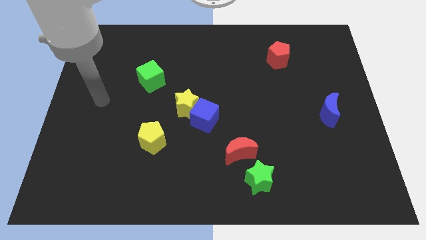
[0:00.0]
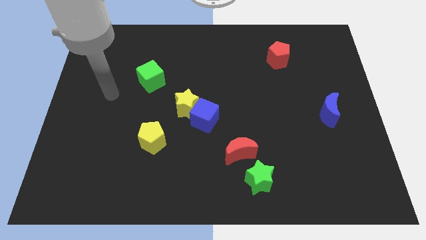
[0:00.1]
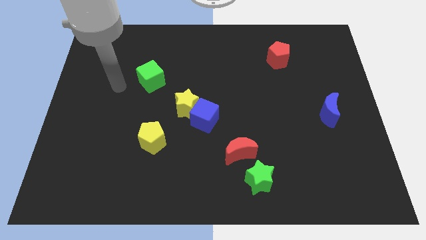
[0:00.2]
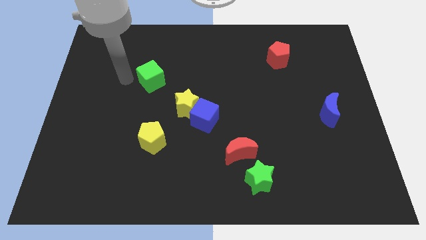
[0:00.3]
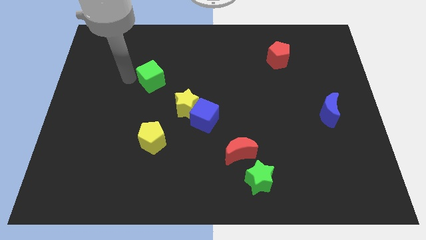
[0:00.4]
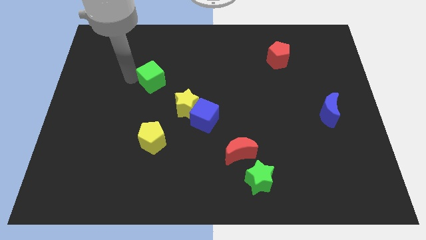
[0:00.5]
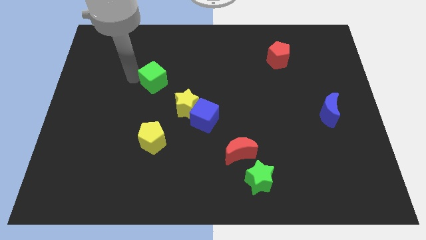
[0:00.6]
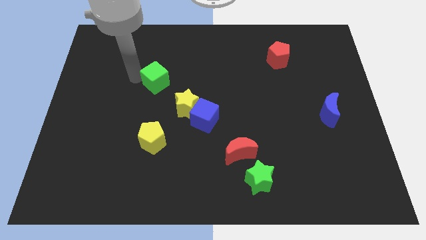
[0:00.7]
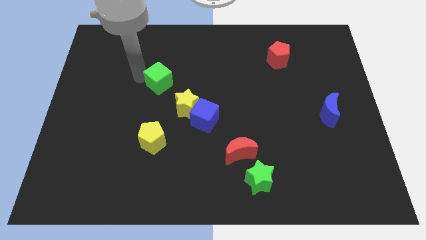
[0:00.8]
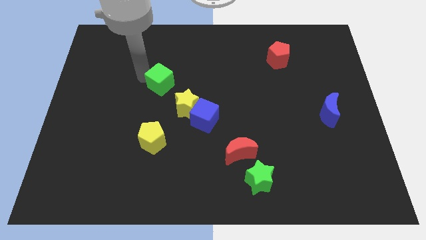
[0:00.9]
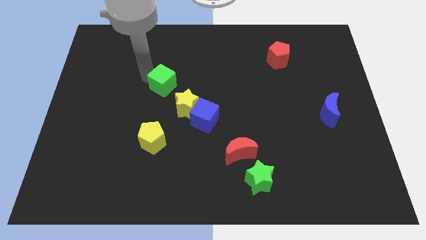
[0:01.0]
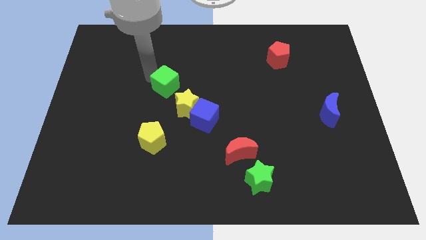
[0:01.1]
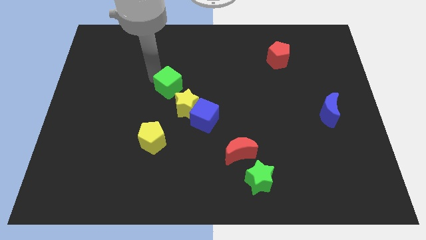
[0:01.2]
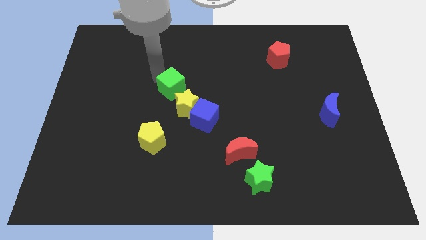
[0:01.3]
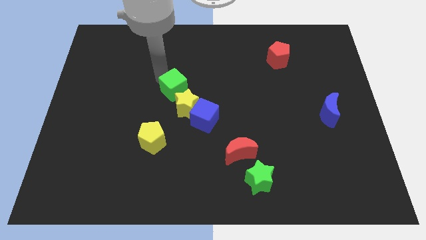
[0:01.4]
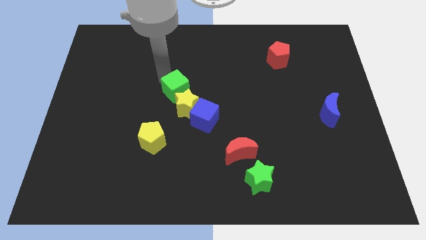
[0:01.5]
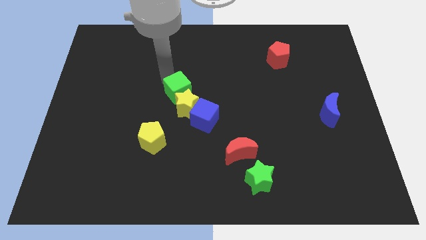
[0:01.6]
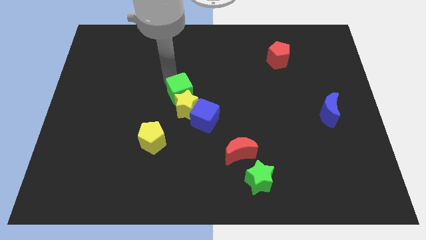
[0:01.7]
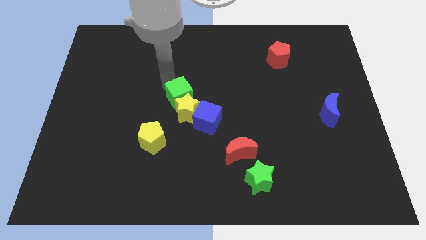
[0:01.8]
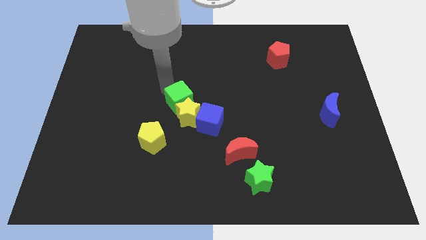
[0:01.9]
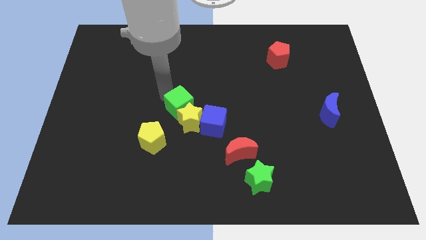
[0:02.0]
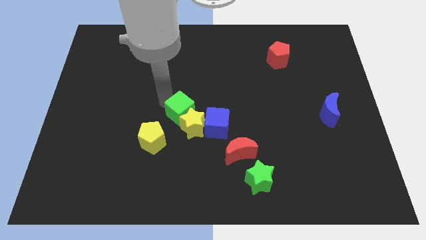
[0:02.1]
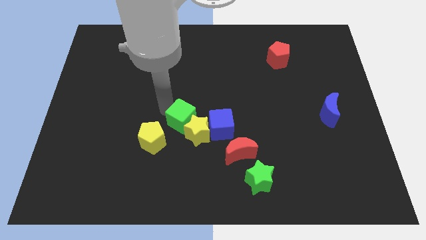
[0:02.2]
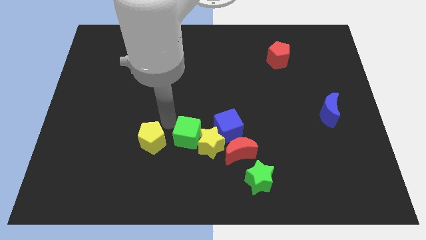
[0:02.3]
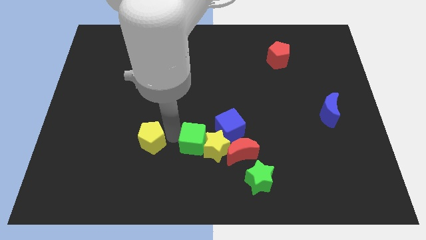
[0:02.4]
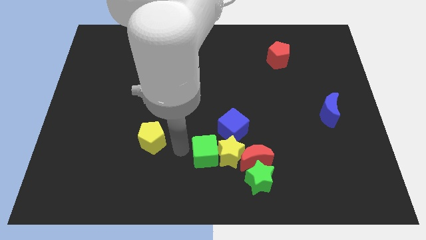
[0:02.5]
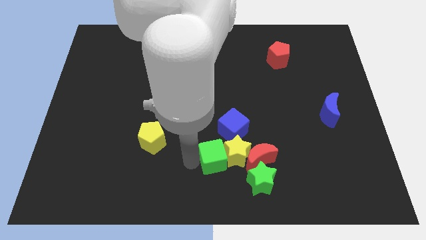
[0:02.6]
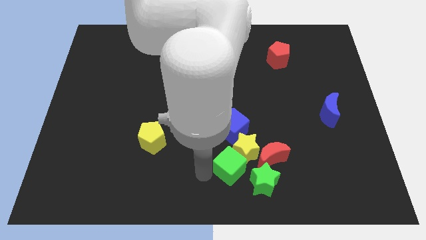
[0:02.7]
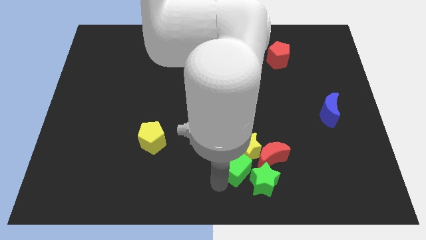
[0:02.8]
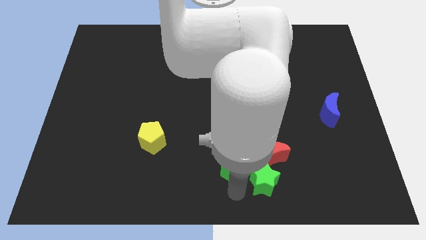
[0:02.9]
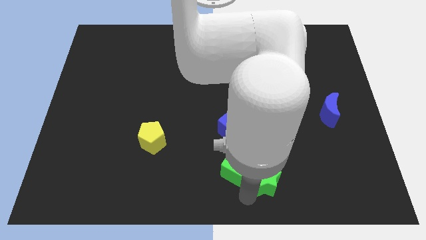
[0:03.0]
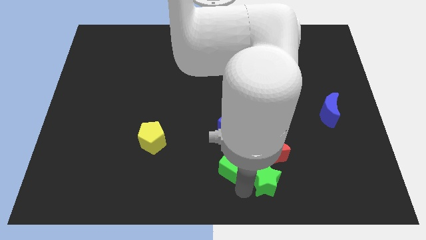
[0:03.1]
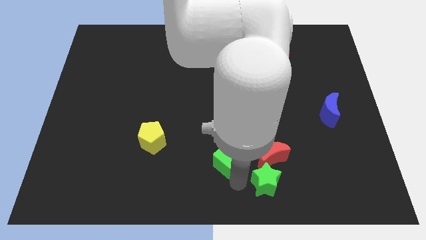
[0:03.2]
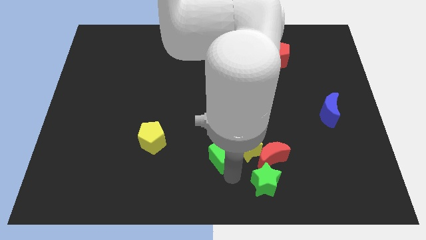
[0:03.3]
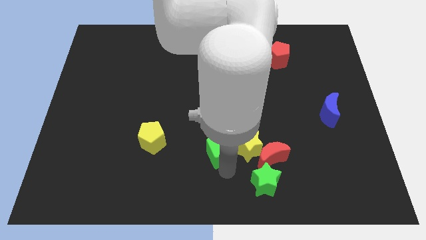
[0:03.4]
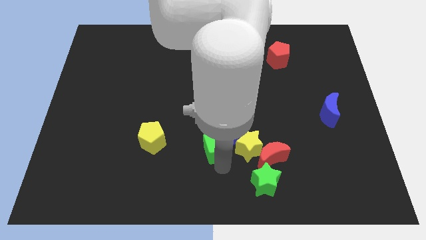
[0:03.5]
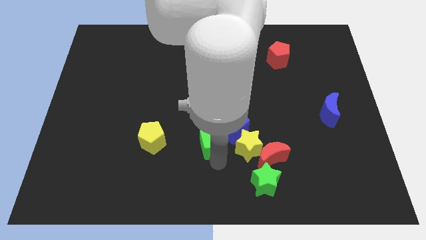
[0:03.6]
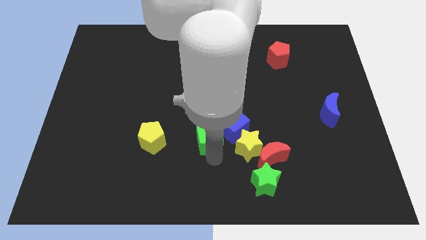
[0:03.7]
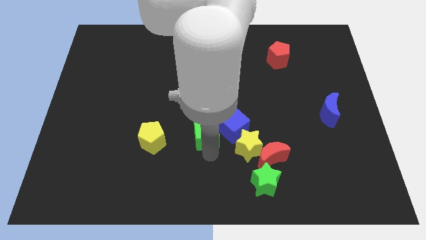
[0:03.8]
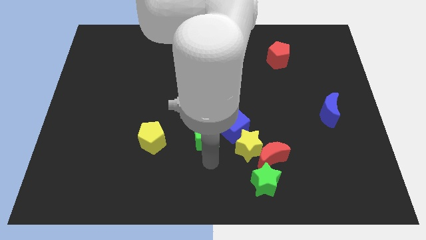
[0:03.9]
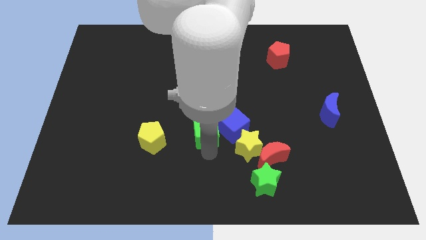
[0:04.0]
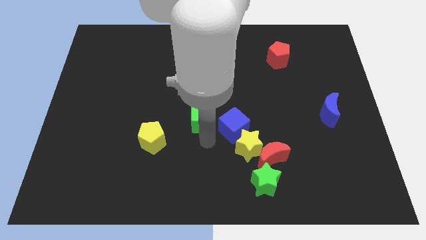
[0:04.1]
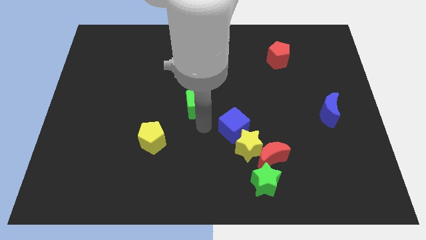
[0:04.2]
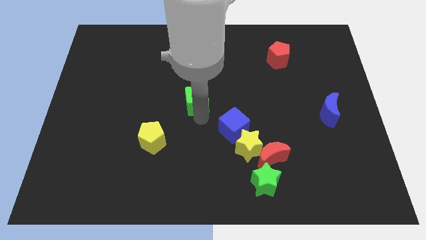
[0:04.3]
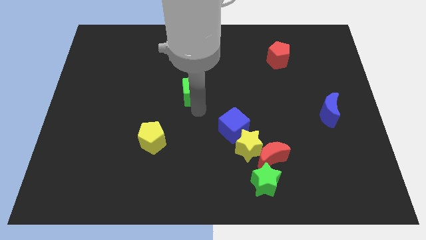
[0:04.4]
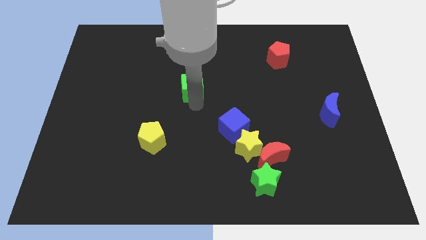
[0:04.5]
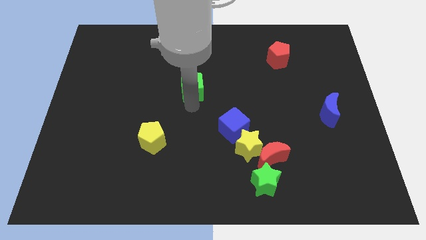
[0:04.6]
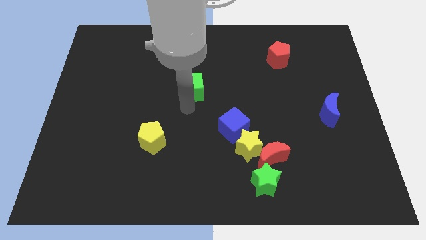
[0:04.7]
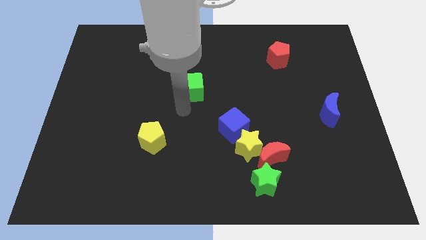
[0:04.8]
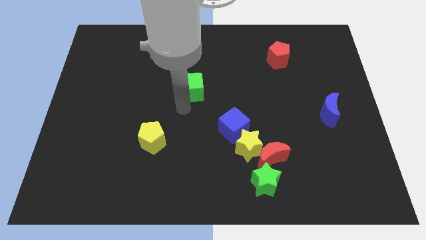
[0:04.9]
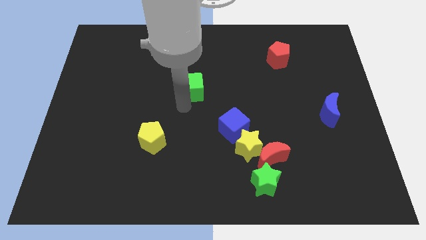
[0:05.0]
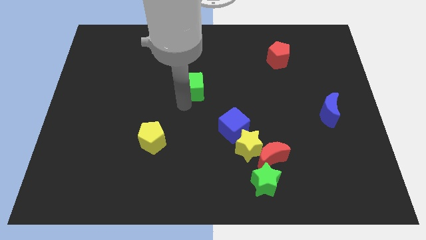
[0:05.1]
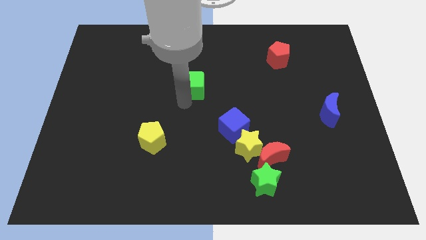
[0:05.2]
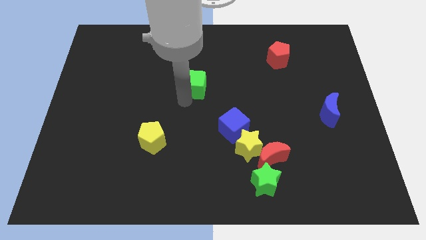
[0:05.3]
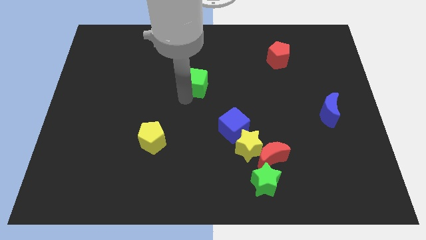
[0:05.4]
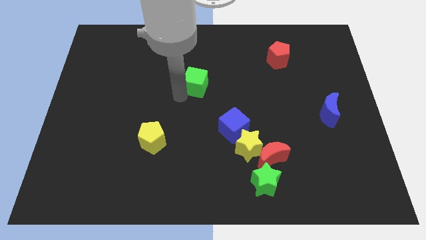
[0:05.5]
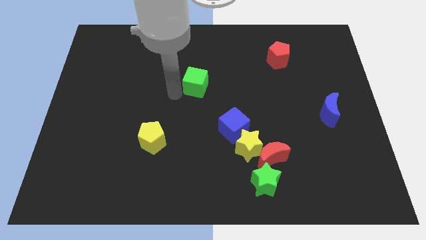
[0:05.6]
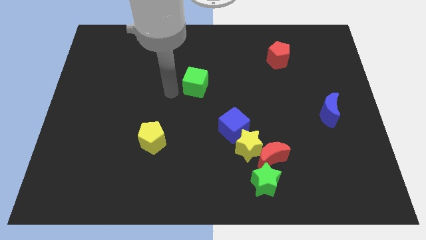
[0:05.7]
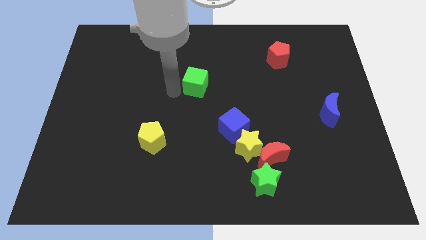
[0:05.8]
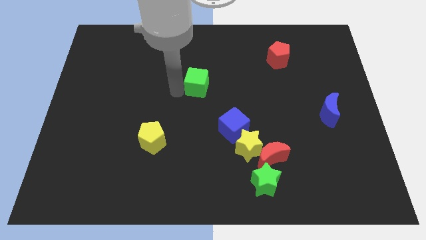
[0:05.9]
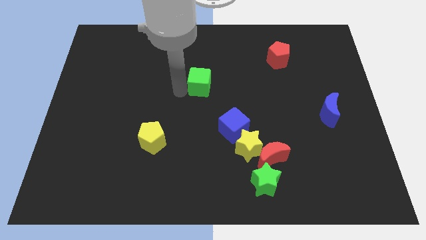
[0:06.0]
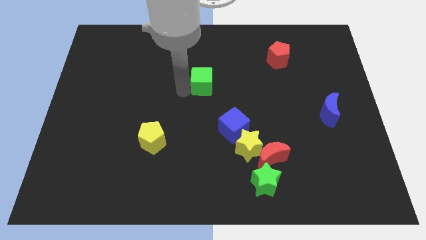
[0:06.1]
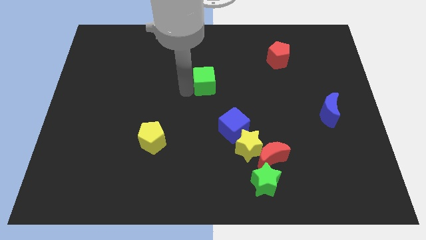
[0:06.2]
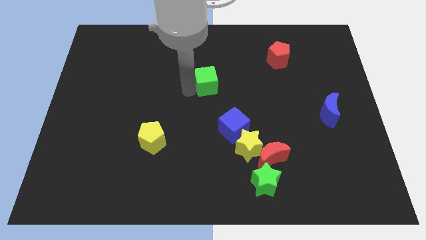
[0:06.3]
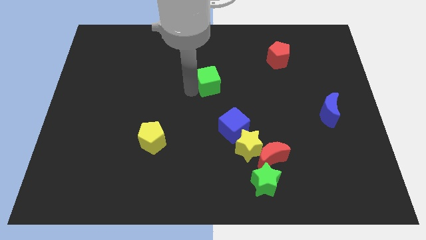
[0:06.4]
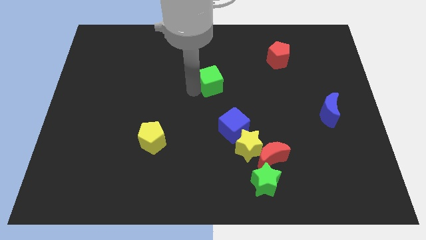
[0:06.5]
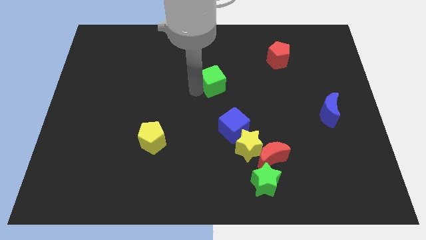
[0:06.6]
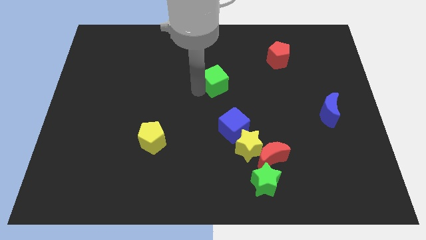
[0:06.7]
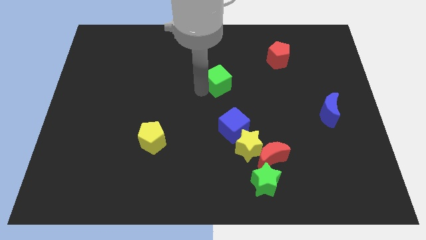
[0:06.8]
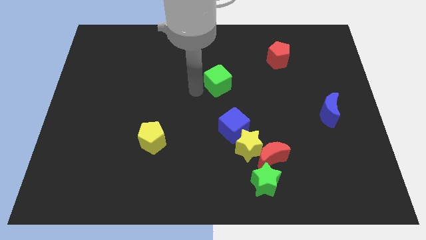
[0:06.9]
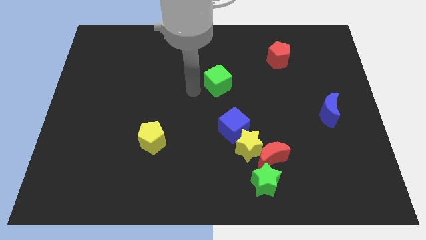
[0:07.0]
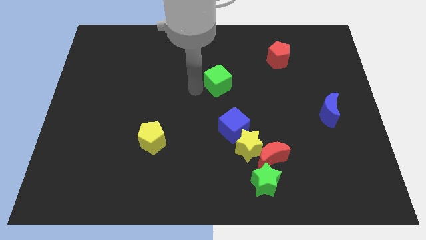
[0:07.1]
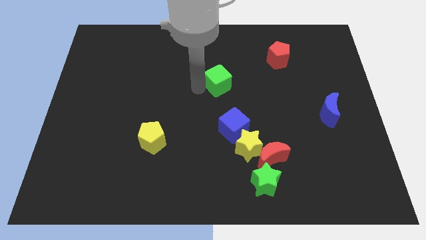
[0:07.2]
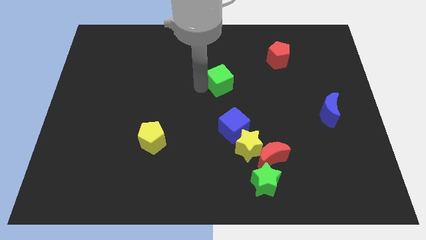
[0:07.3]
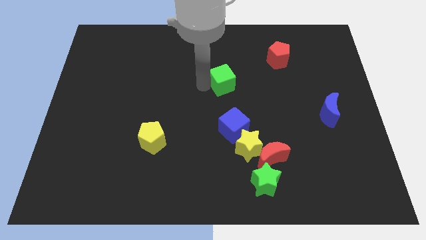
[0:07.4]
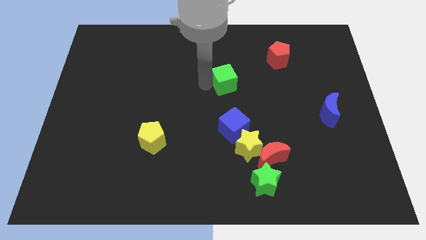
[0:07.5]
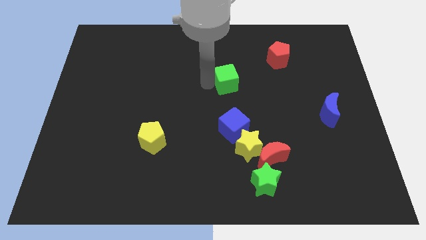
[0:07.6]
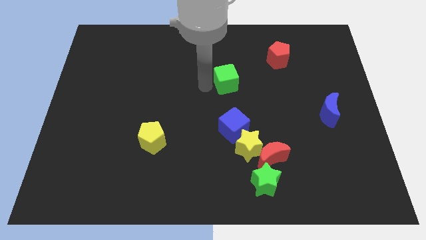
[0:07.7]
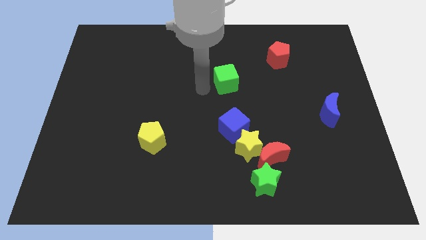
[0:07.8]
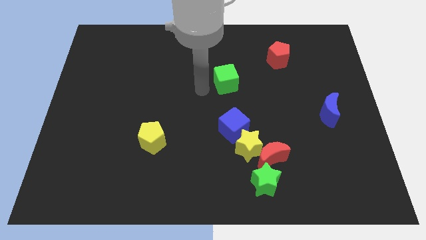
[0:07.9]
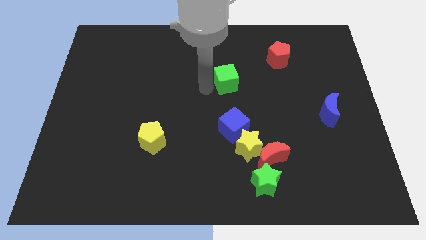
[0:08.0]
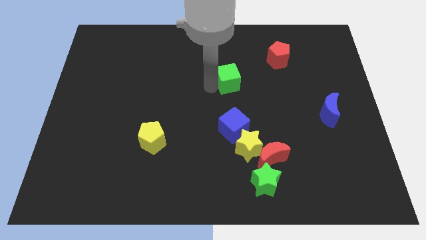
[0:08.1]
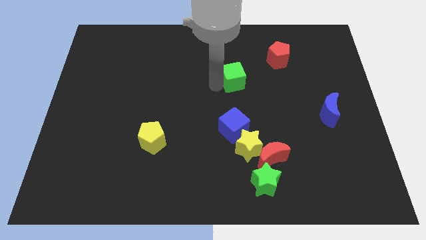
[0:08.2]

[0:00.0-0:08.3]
move the green cube to the right
